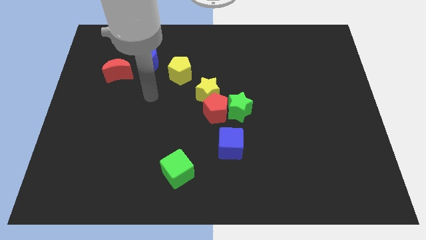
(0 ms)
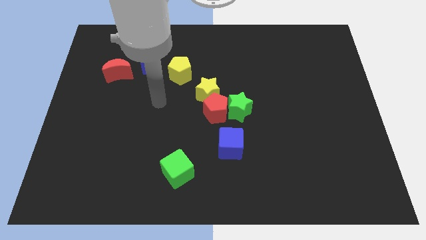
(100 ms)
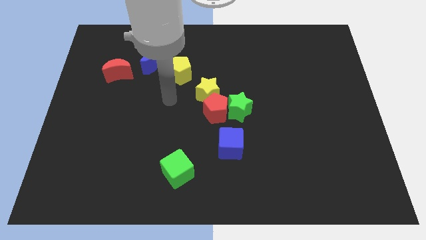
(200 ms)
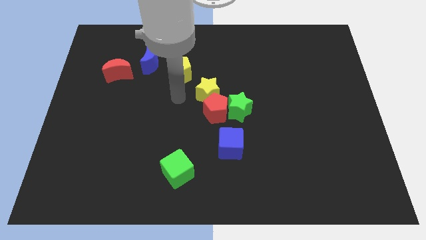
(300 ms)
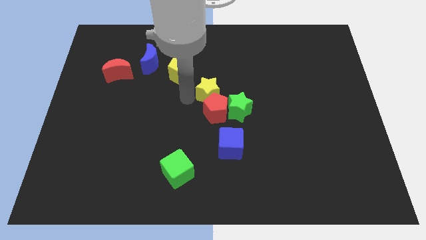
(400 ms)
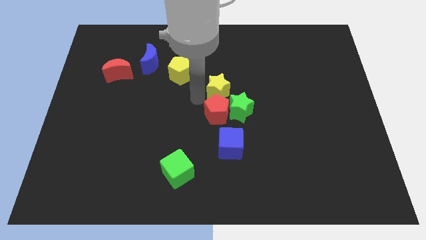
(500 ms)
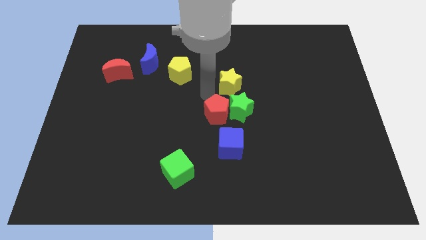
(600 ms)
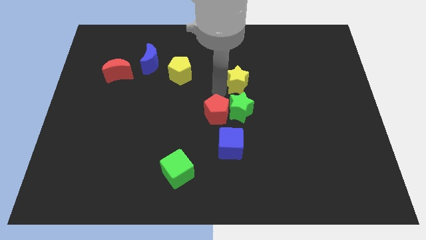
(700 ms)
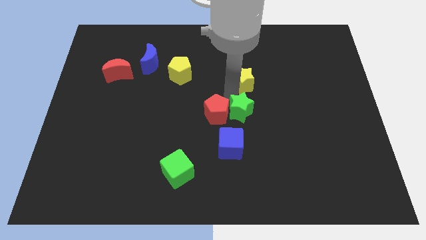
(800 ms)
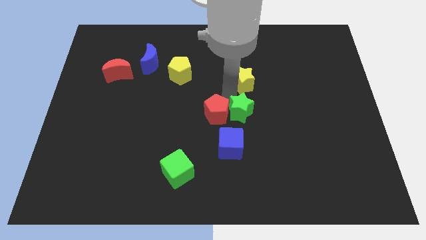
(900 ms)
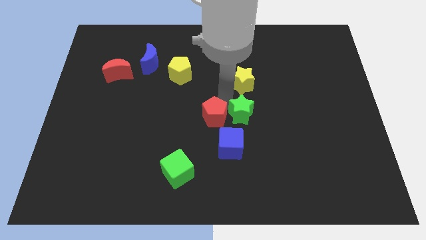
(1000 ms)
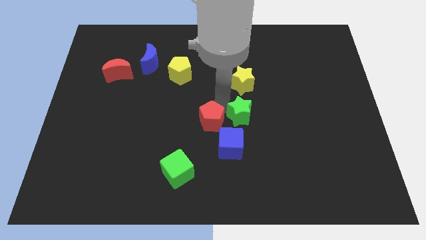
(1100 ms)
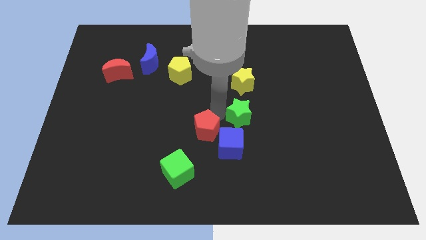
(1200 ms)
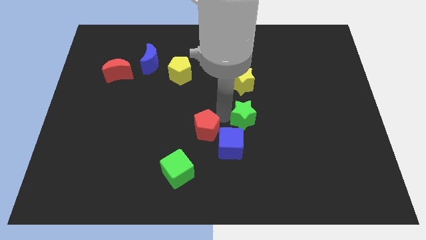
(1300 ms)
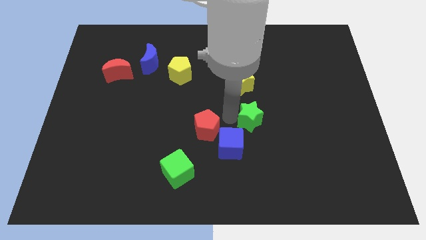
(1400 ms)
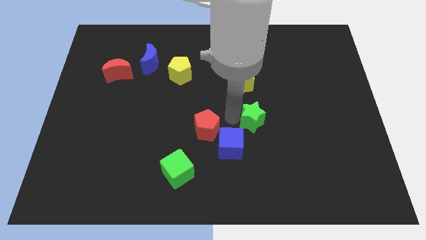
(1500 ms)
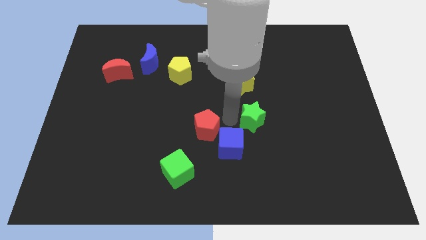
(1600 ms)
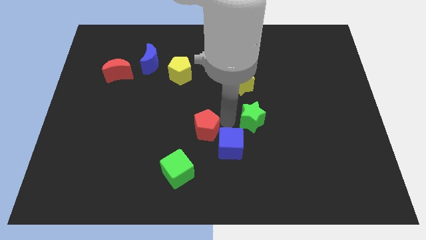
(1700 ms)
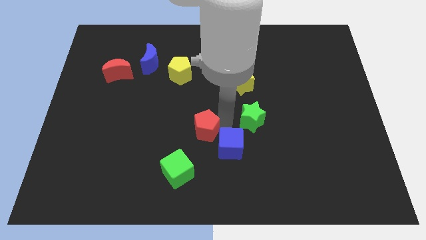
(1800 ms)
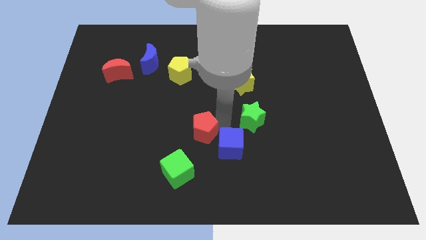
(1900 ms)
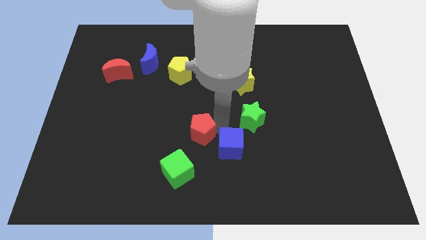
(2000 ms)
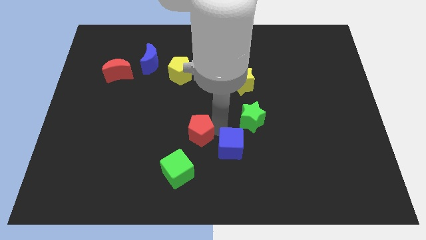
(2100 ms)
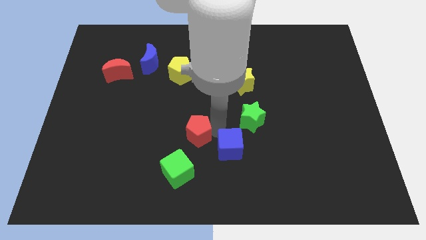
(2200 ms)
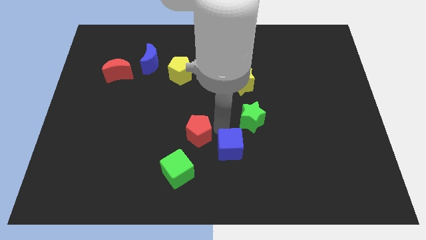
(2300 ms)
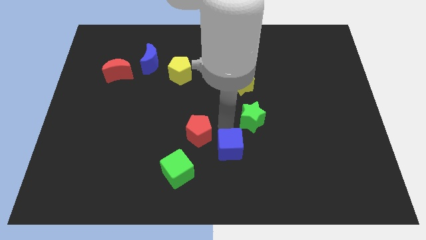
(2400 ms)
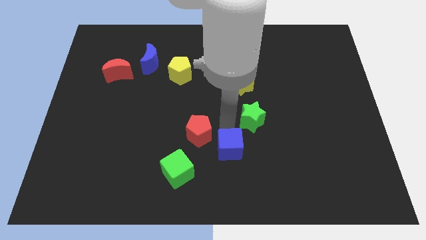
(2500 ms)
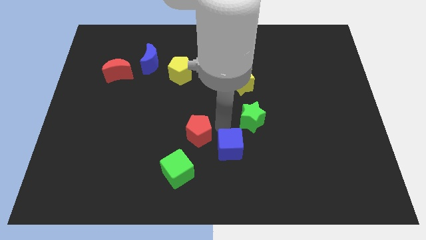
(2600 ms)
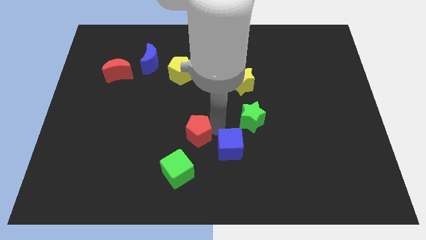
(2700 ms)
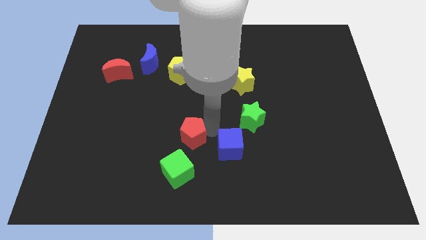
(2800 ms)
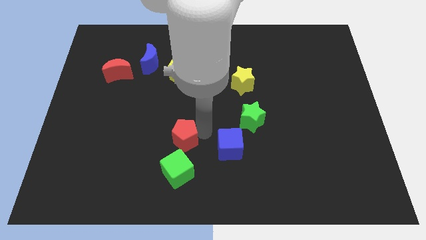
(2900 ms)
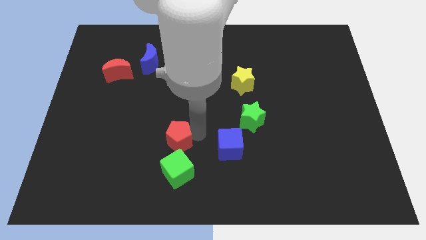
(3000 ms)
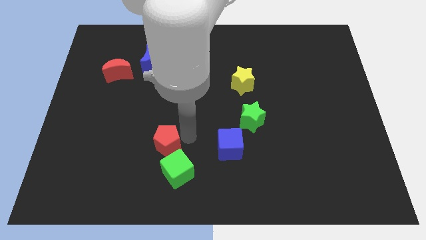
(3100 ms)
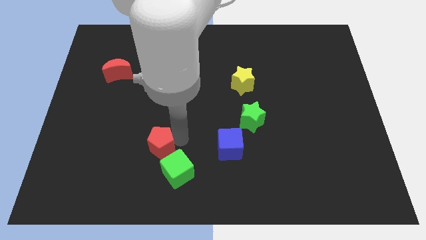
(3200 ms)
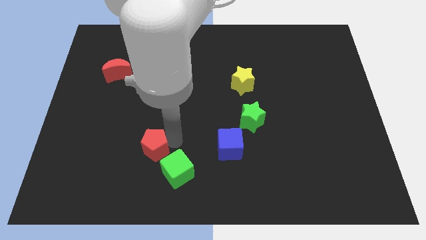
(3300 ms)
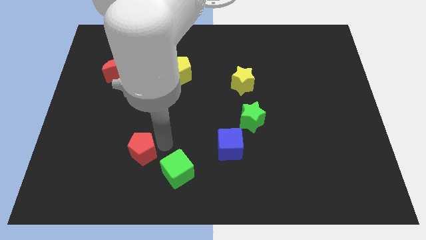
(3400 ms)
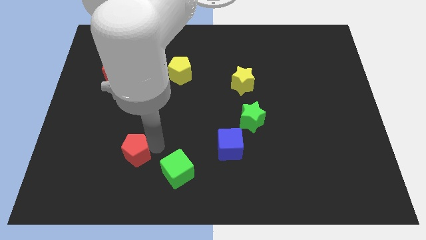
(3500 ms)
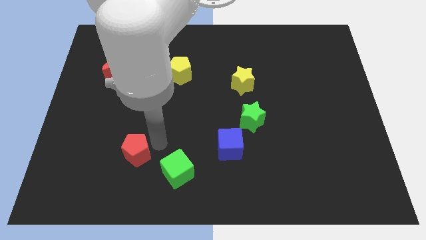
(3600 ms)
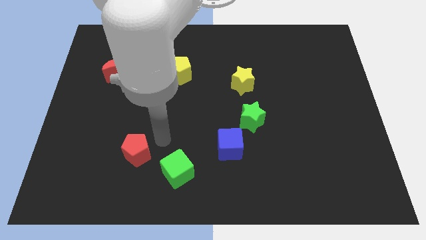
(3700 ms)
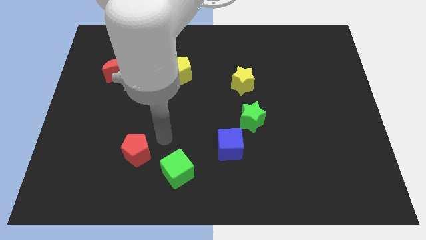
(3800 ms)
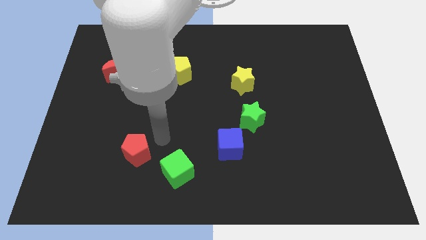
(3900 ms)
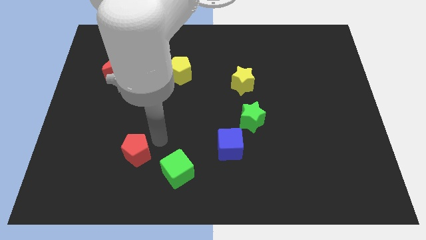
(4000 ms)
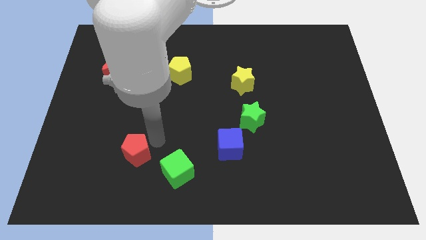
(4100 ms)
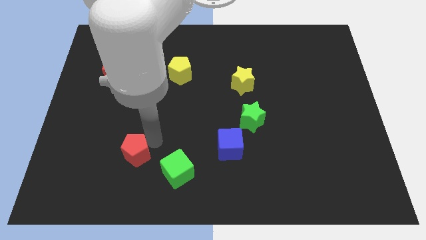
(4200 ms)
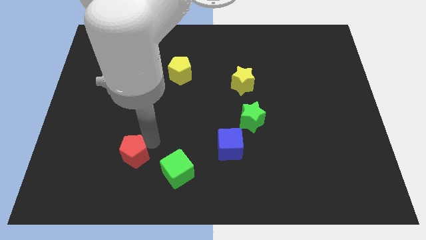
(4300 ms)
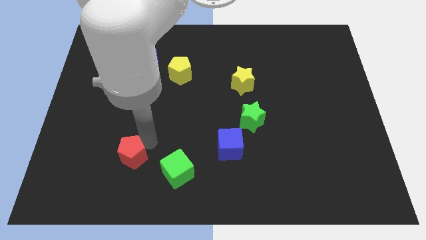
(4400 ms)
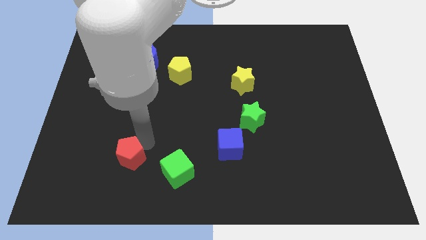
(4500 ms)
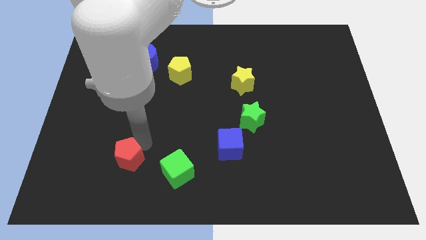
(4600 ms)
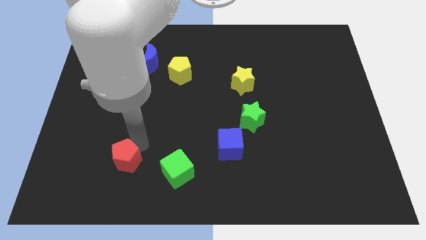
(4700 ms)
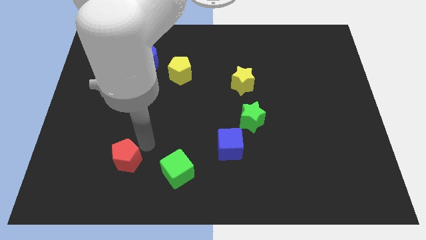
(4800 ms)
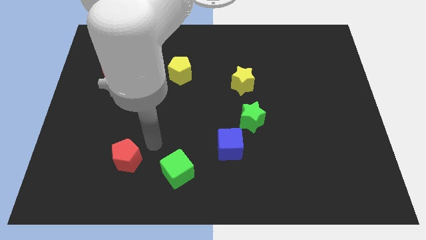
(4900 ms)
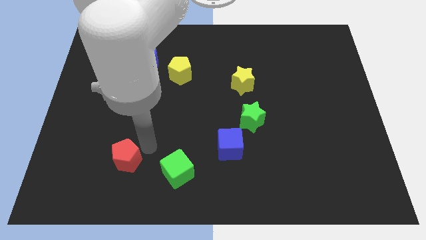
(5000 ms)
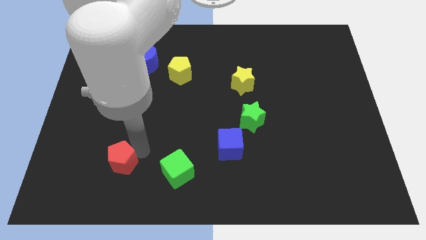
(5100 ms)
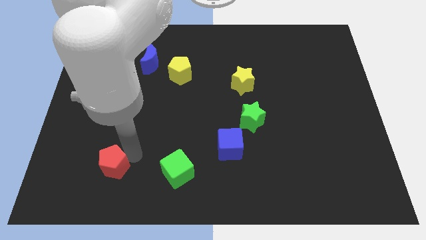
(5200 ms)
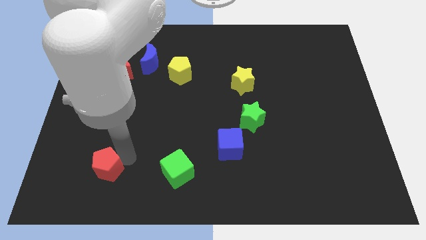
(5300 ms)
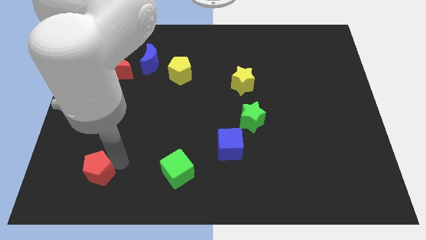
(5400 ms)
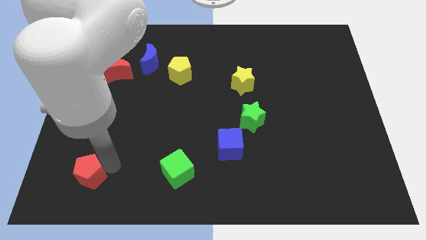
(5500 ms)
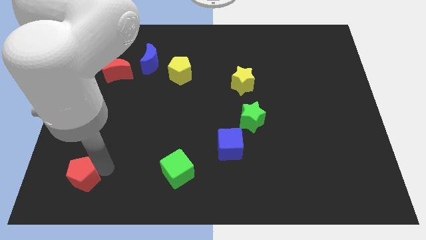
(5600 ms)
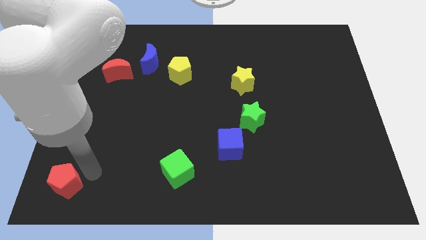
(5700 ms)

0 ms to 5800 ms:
push the red pentagon to the bottom left of the board

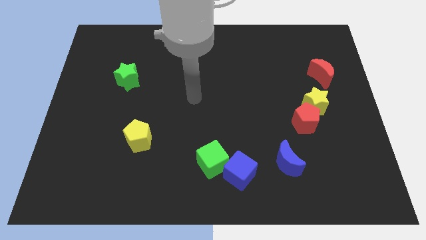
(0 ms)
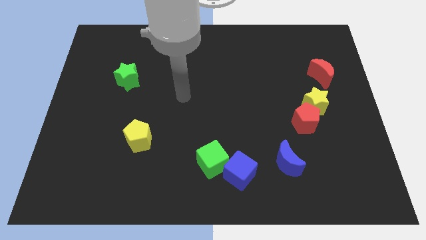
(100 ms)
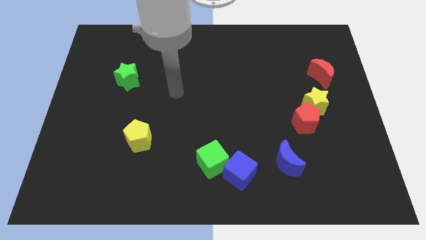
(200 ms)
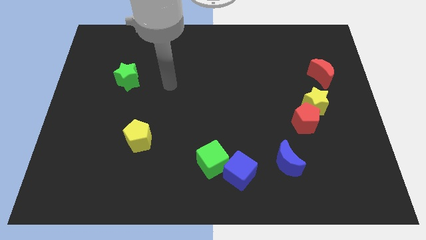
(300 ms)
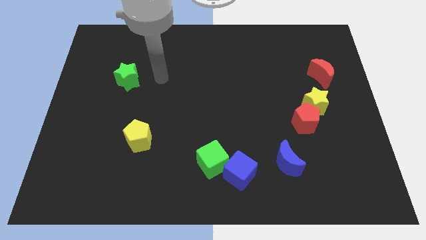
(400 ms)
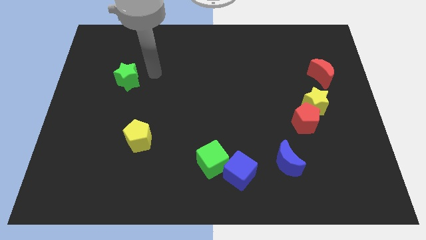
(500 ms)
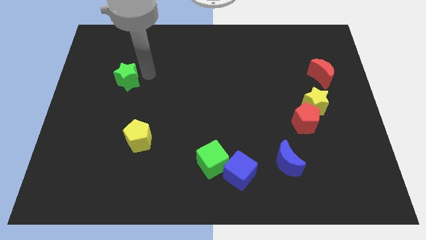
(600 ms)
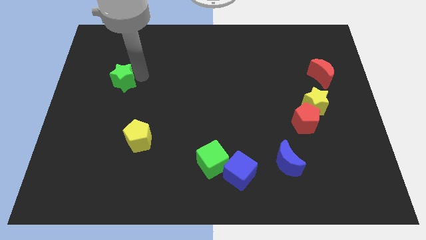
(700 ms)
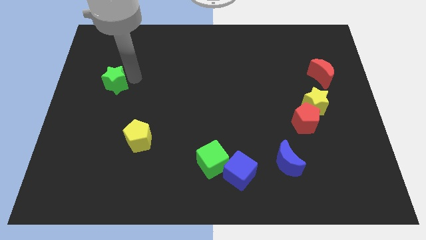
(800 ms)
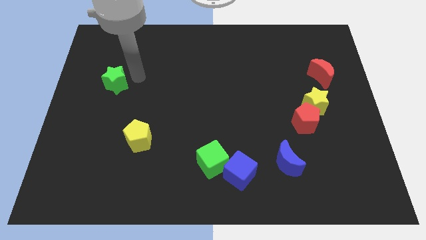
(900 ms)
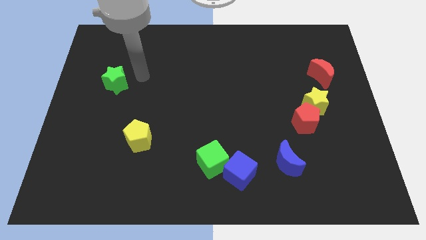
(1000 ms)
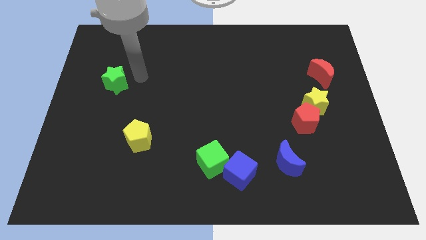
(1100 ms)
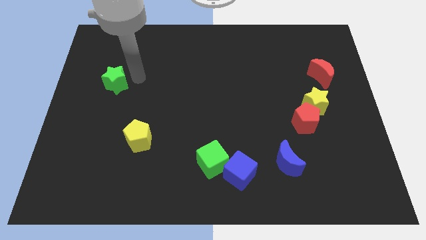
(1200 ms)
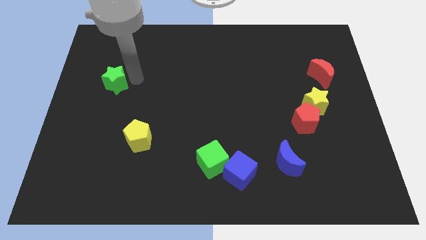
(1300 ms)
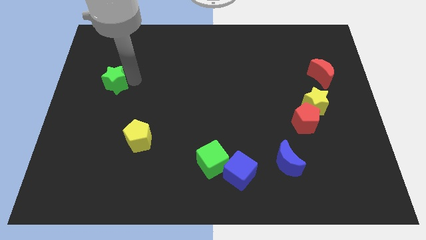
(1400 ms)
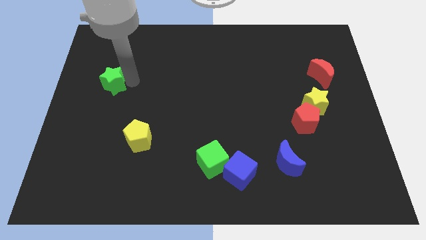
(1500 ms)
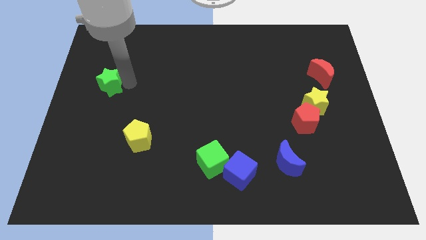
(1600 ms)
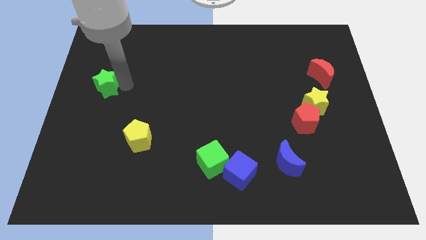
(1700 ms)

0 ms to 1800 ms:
put the green star to the center left
